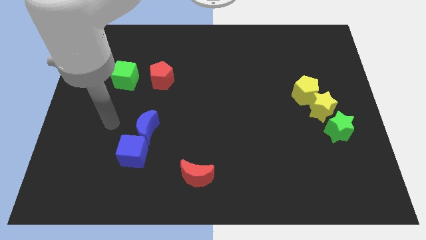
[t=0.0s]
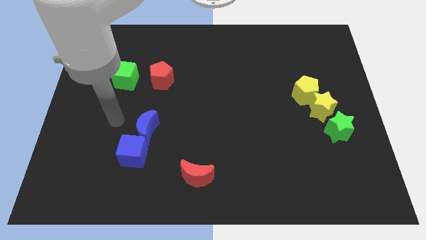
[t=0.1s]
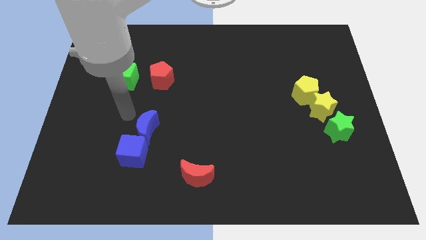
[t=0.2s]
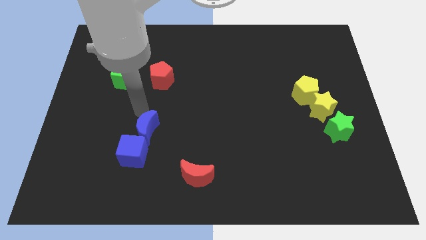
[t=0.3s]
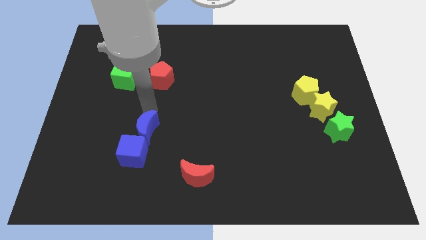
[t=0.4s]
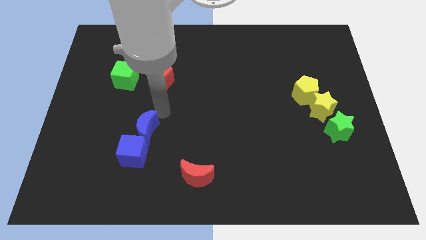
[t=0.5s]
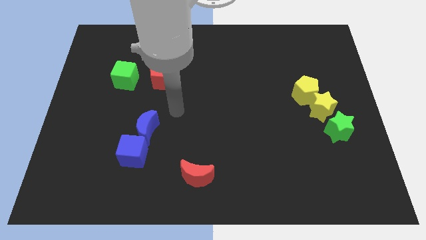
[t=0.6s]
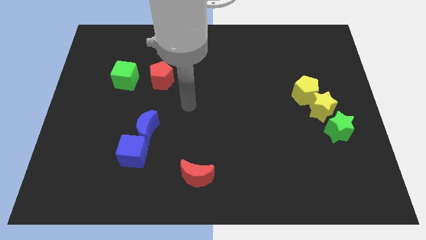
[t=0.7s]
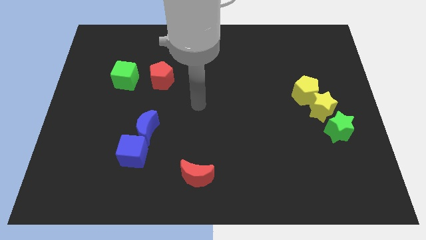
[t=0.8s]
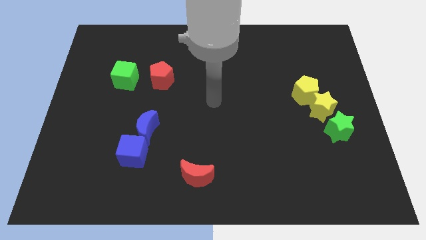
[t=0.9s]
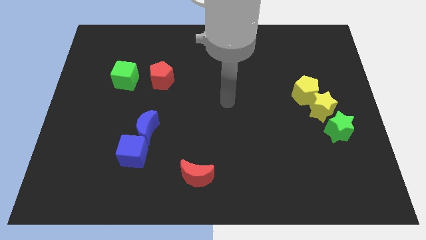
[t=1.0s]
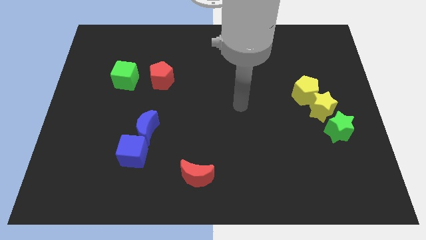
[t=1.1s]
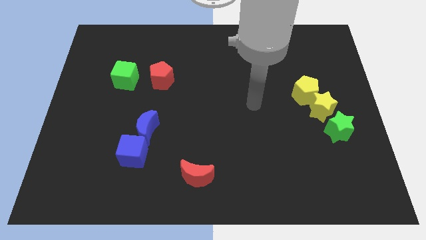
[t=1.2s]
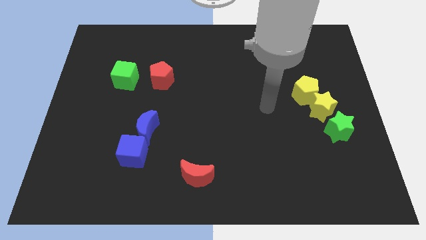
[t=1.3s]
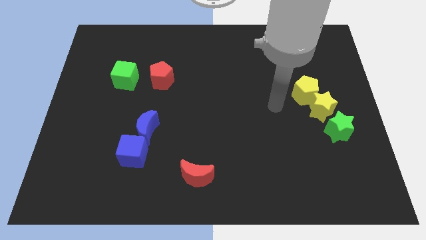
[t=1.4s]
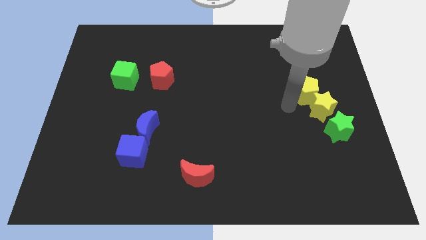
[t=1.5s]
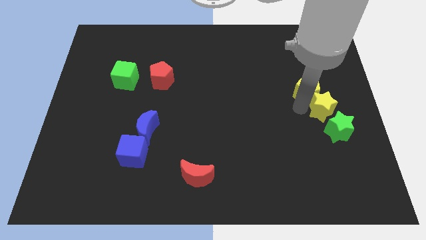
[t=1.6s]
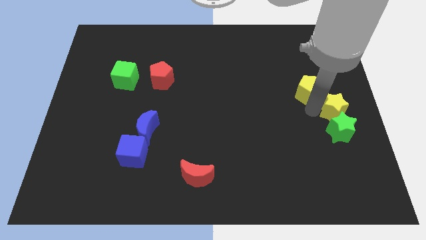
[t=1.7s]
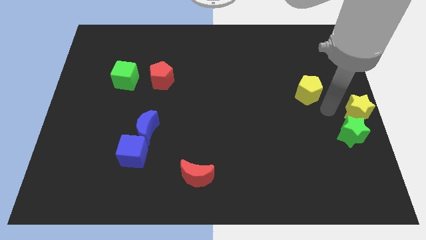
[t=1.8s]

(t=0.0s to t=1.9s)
separate the yellow pentagon from the yellow star

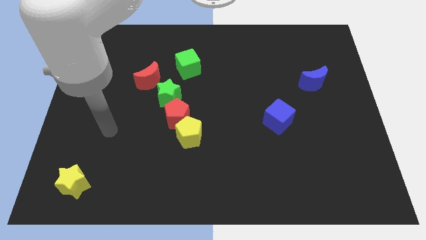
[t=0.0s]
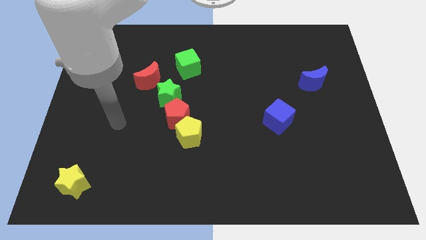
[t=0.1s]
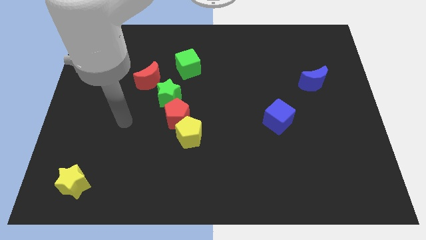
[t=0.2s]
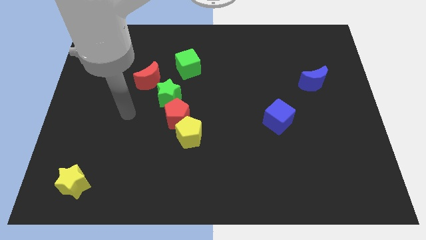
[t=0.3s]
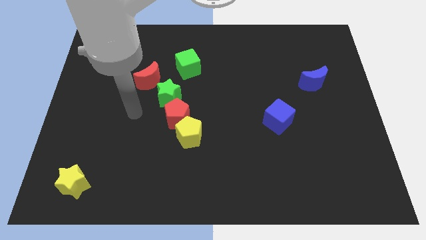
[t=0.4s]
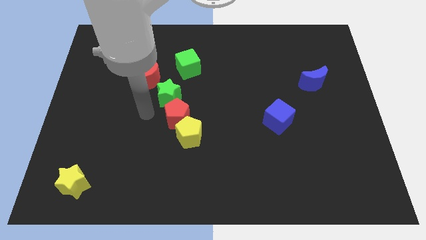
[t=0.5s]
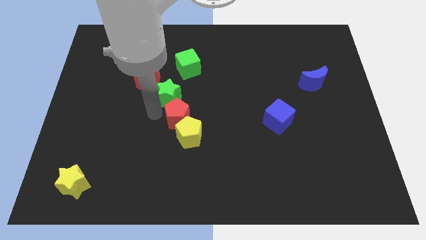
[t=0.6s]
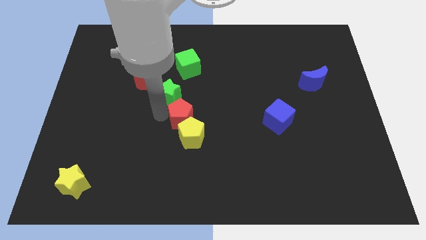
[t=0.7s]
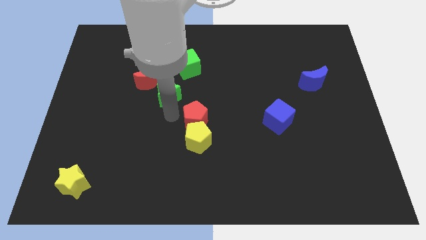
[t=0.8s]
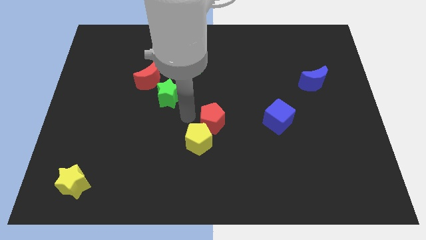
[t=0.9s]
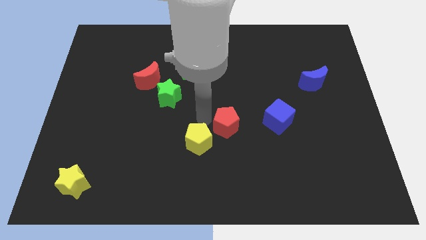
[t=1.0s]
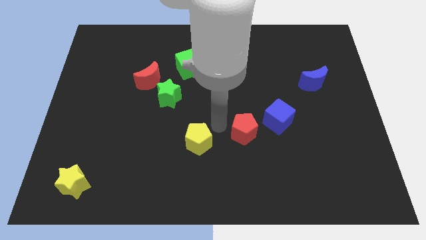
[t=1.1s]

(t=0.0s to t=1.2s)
move the yellow pentagon away from the red pentagon

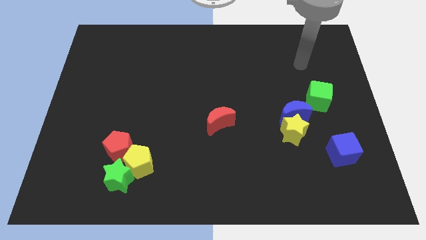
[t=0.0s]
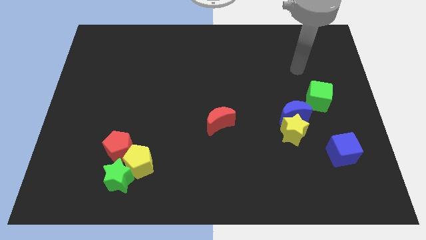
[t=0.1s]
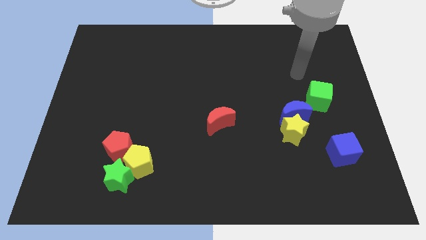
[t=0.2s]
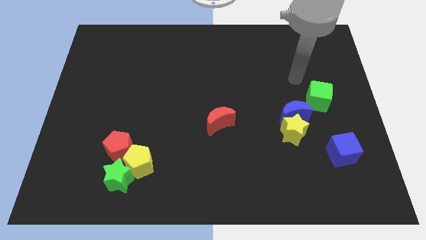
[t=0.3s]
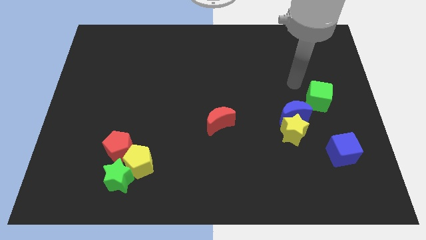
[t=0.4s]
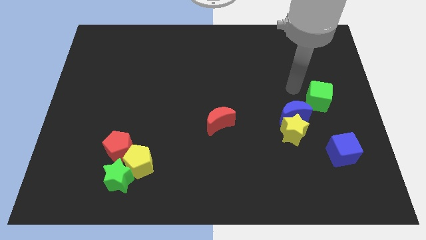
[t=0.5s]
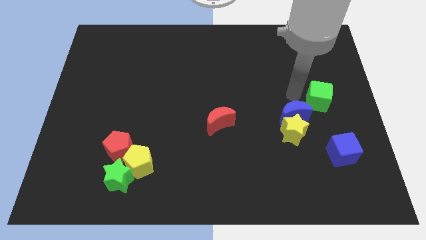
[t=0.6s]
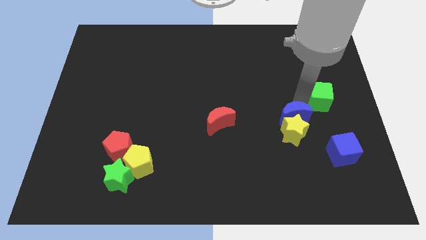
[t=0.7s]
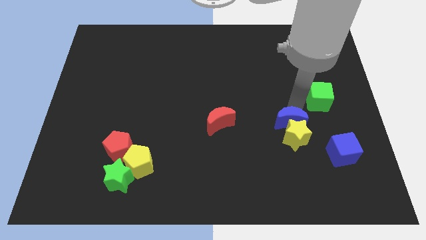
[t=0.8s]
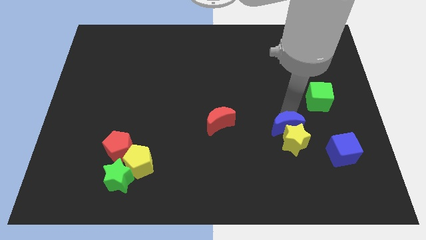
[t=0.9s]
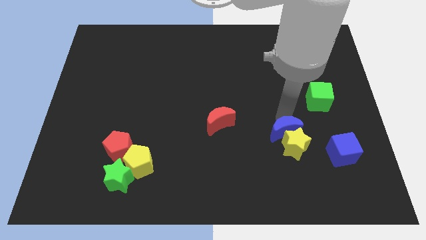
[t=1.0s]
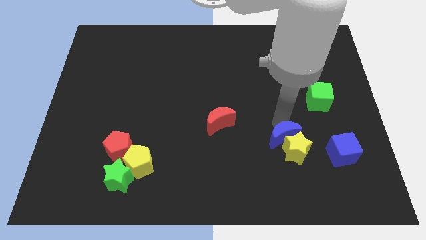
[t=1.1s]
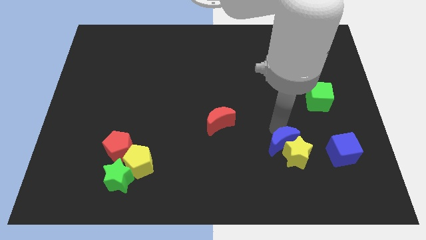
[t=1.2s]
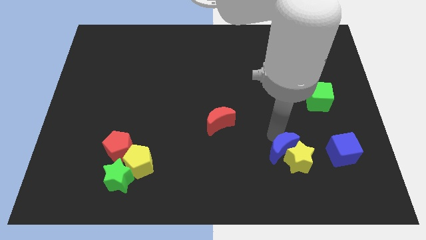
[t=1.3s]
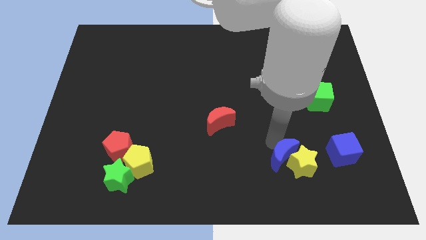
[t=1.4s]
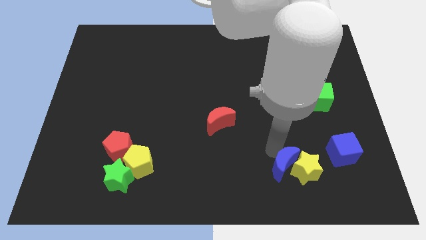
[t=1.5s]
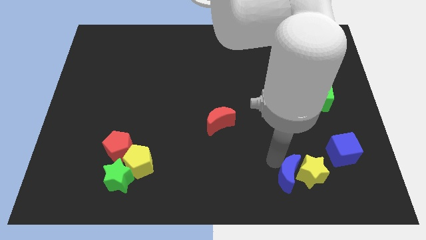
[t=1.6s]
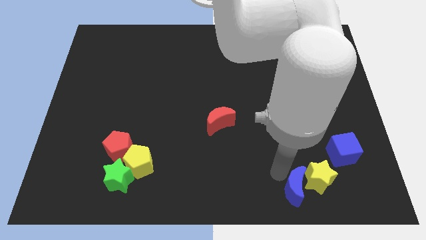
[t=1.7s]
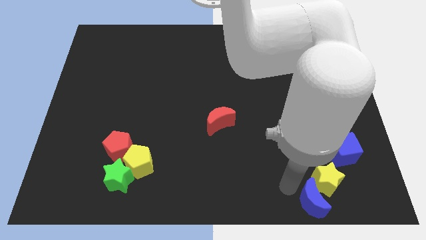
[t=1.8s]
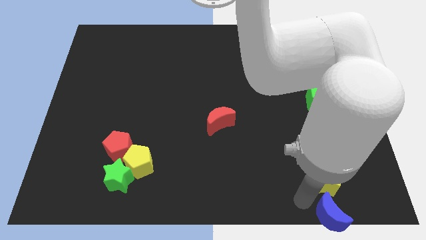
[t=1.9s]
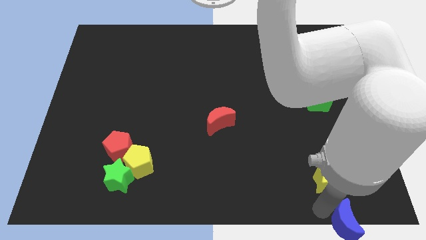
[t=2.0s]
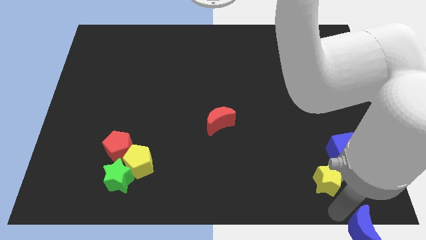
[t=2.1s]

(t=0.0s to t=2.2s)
separate the yellow star from the blue moon

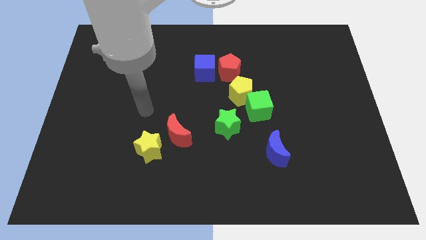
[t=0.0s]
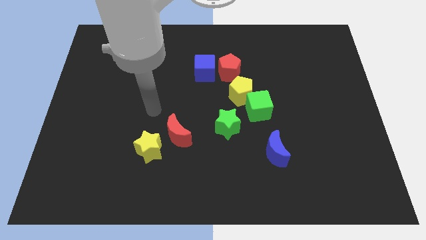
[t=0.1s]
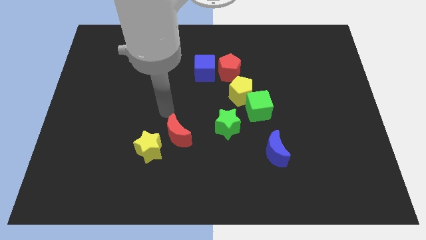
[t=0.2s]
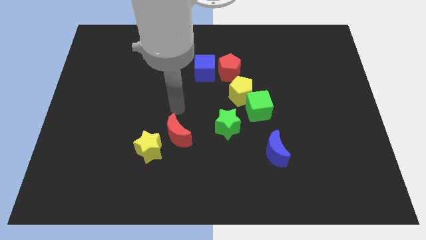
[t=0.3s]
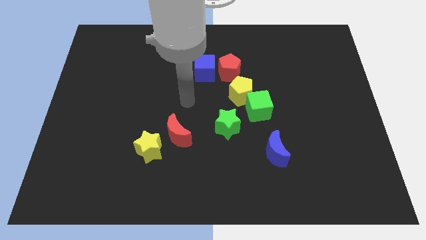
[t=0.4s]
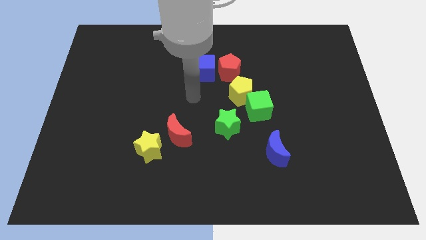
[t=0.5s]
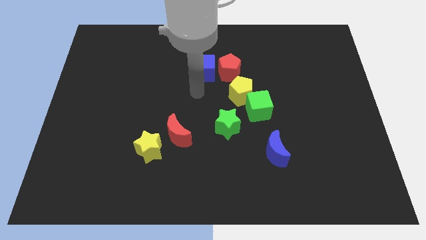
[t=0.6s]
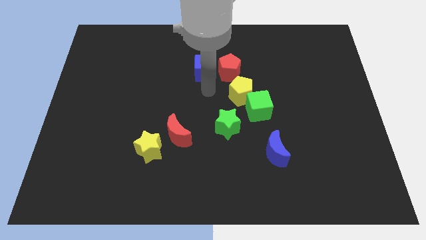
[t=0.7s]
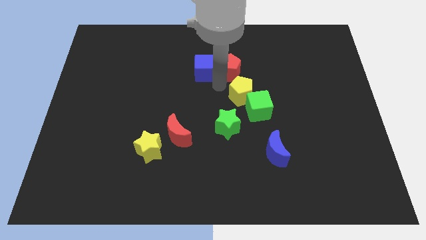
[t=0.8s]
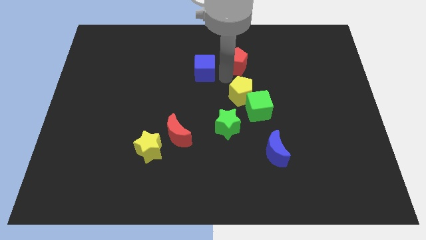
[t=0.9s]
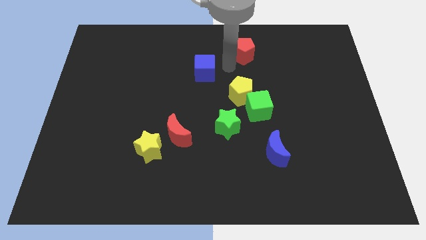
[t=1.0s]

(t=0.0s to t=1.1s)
pull the blue cube apart from the red pentagon

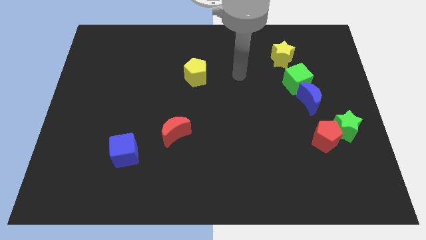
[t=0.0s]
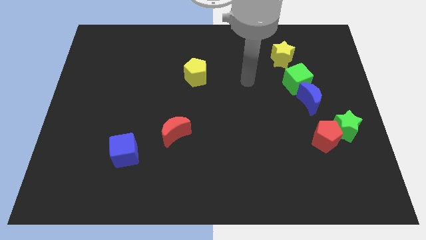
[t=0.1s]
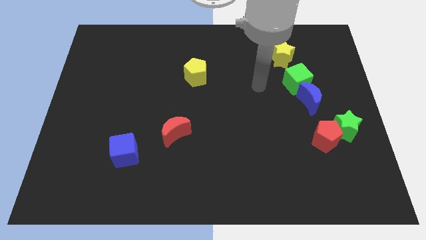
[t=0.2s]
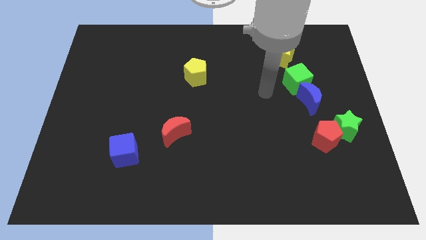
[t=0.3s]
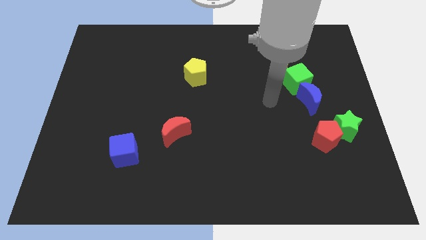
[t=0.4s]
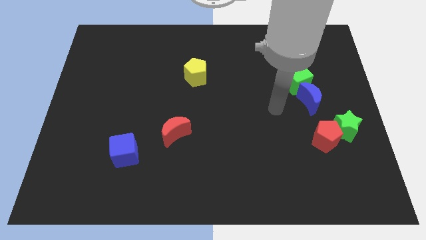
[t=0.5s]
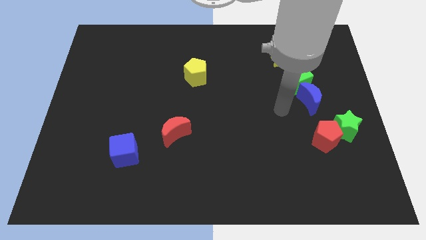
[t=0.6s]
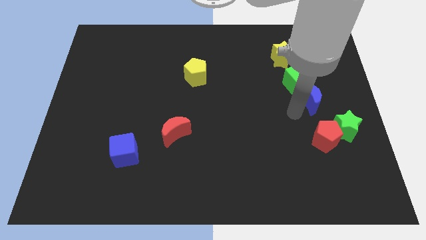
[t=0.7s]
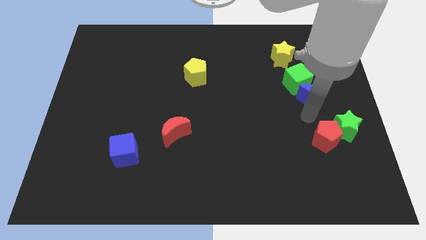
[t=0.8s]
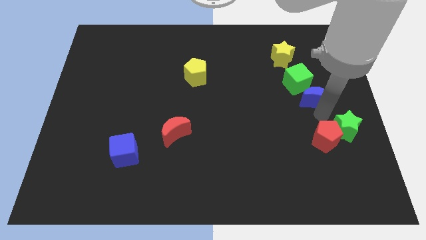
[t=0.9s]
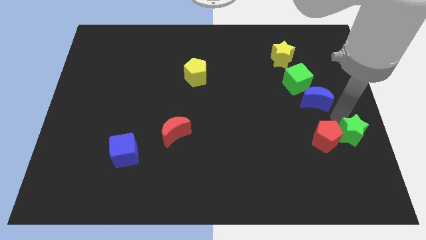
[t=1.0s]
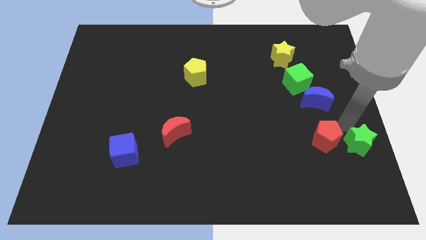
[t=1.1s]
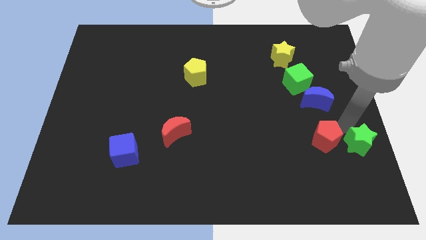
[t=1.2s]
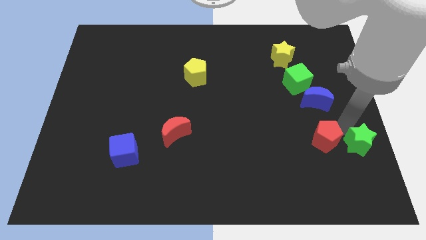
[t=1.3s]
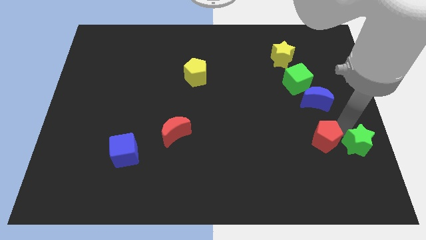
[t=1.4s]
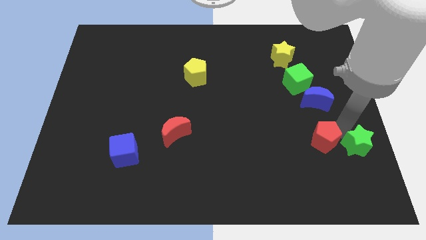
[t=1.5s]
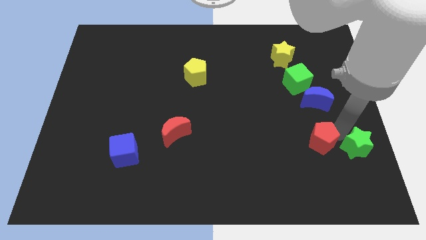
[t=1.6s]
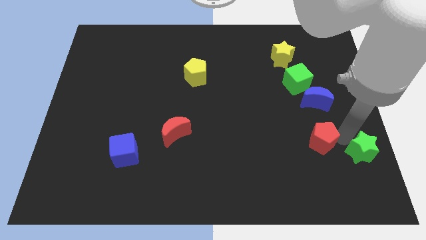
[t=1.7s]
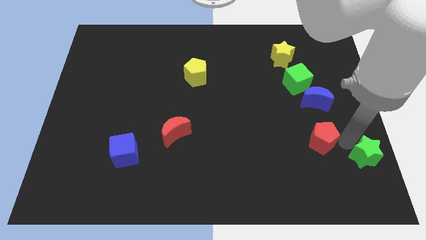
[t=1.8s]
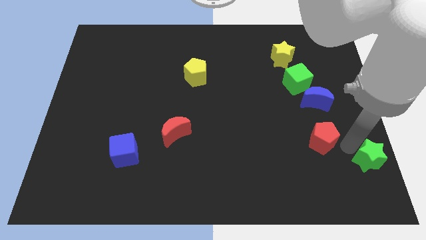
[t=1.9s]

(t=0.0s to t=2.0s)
pull the red pentagon apart from the green star

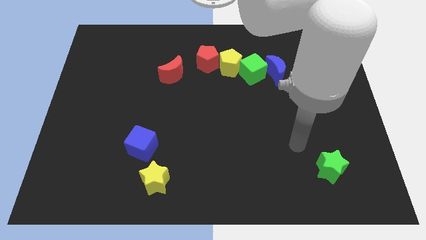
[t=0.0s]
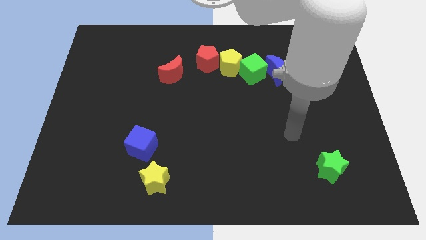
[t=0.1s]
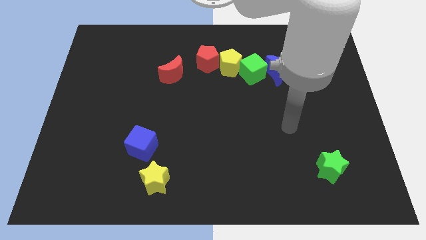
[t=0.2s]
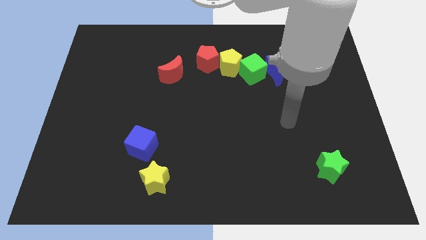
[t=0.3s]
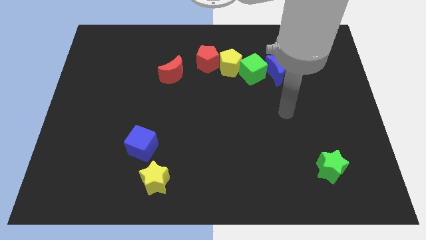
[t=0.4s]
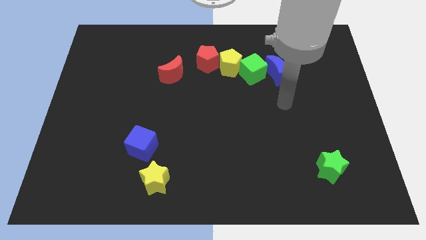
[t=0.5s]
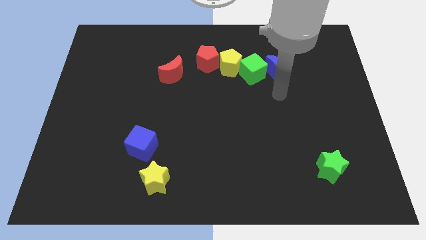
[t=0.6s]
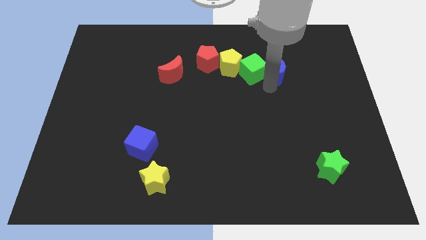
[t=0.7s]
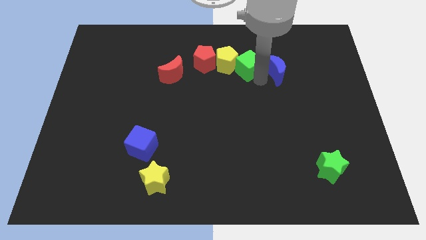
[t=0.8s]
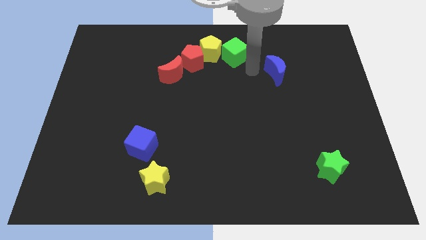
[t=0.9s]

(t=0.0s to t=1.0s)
separate the blue moon from the green cube
